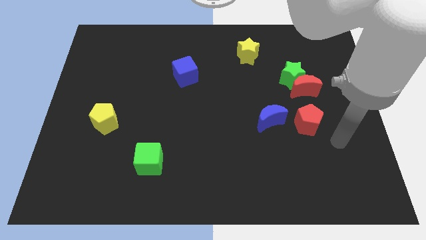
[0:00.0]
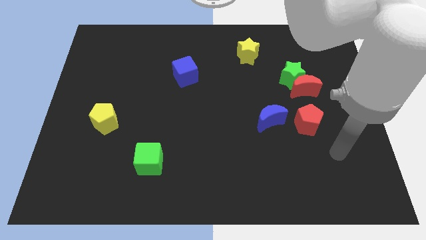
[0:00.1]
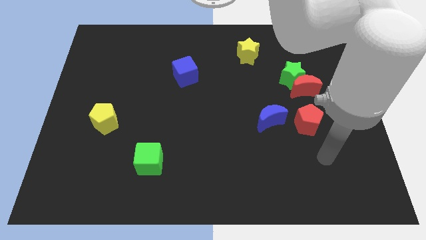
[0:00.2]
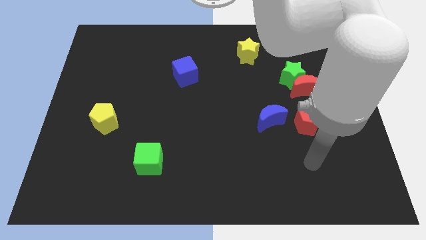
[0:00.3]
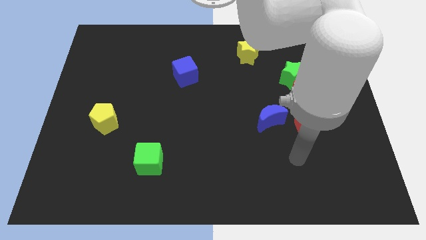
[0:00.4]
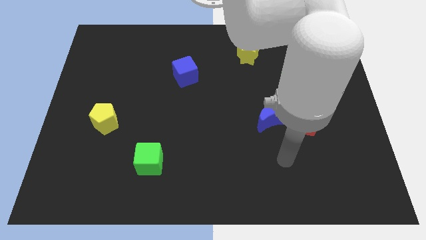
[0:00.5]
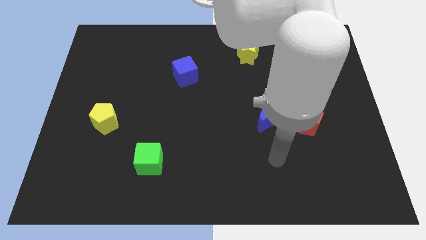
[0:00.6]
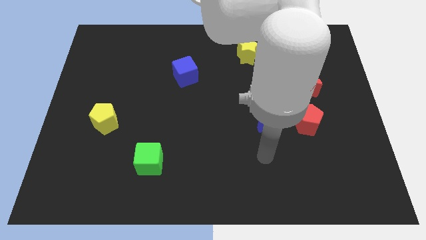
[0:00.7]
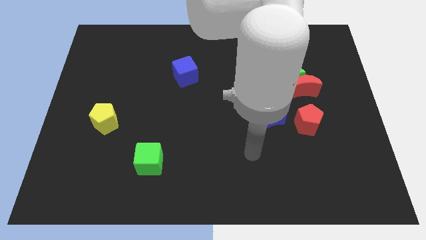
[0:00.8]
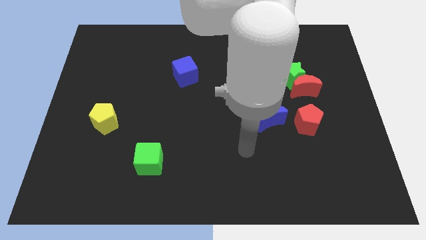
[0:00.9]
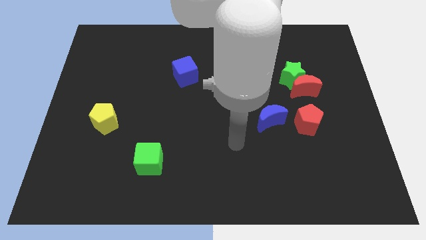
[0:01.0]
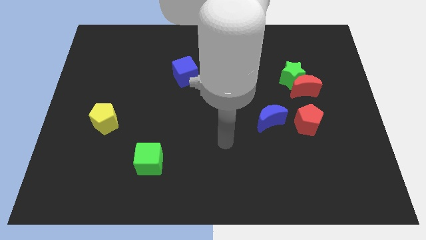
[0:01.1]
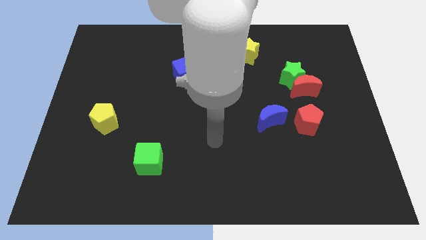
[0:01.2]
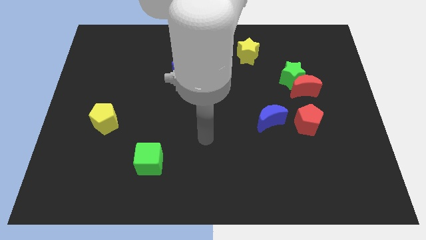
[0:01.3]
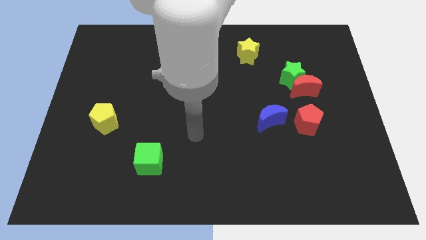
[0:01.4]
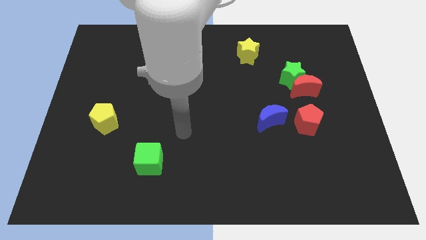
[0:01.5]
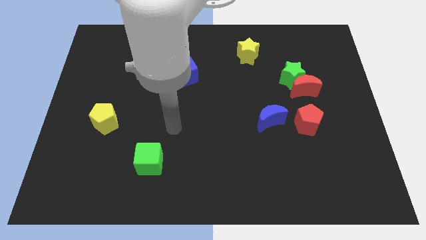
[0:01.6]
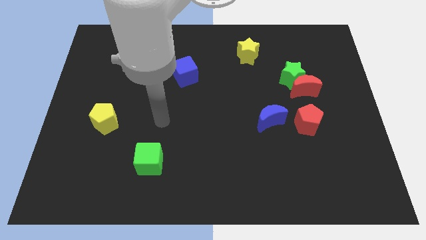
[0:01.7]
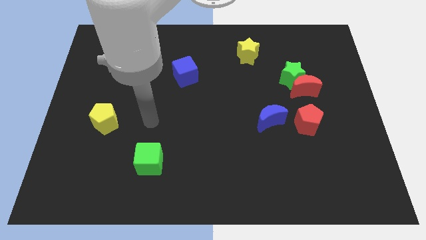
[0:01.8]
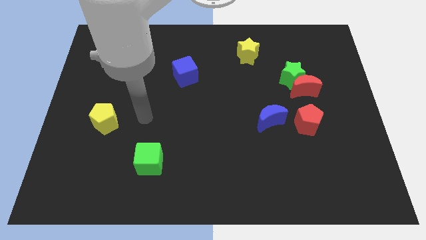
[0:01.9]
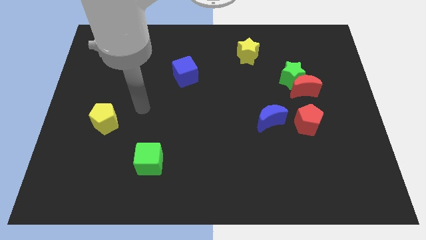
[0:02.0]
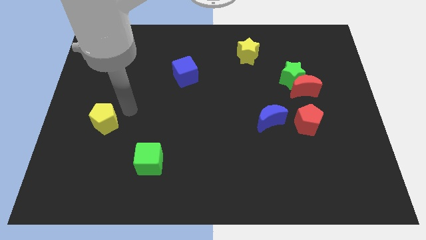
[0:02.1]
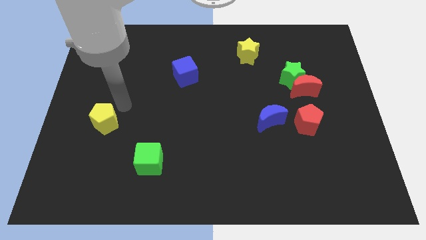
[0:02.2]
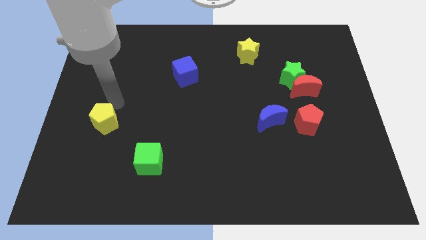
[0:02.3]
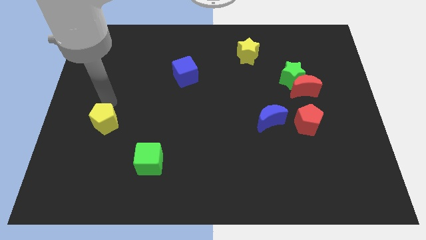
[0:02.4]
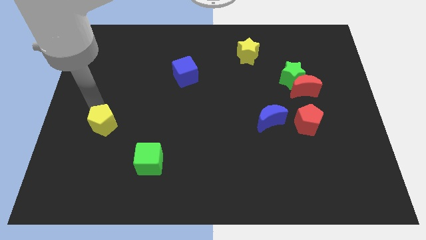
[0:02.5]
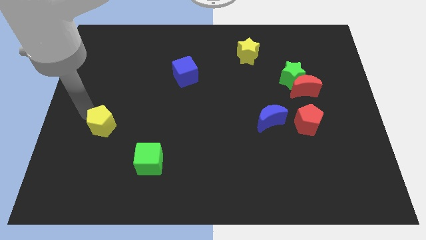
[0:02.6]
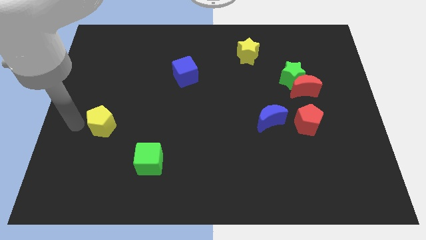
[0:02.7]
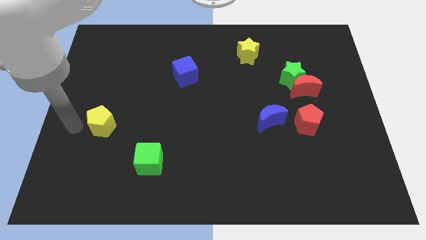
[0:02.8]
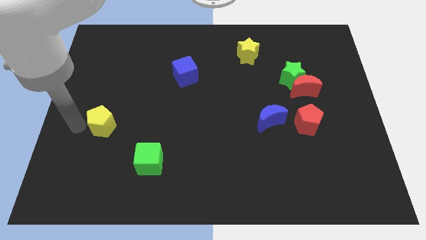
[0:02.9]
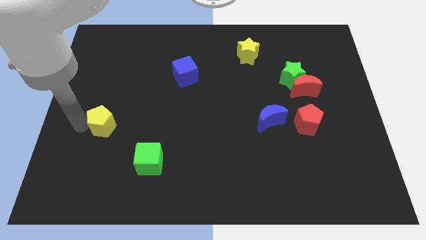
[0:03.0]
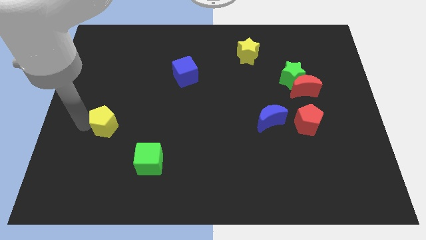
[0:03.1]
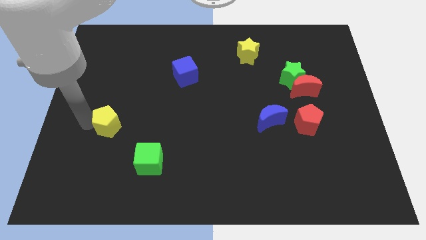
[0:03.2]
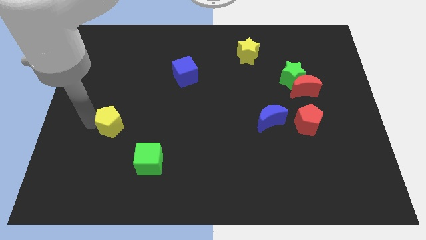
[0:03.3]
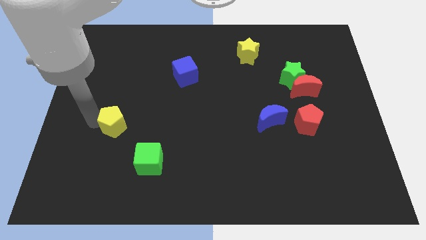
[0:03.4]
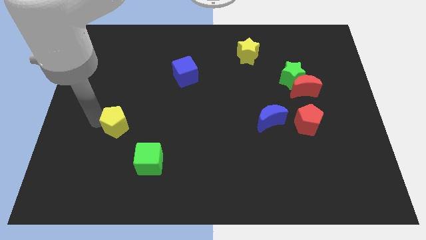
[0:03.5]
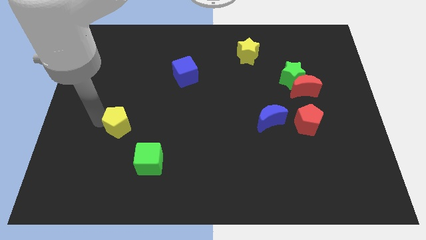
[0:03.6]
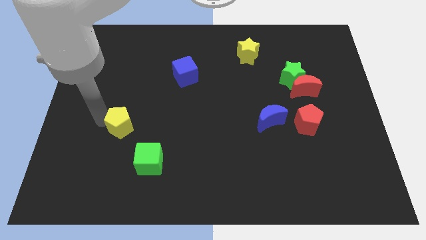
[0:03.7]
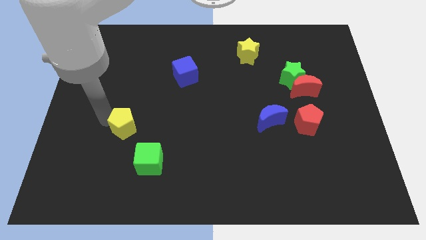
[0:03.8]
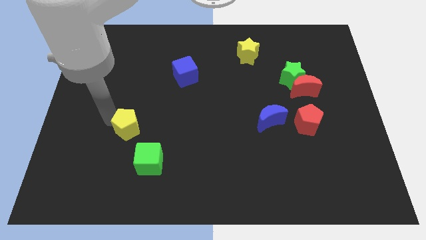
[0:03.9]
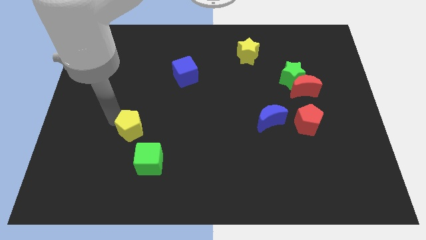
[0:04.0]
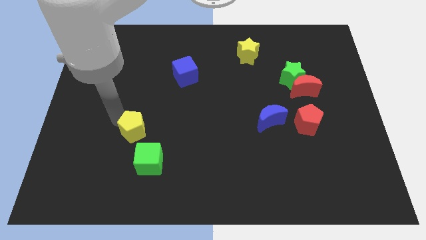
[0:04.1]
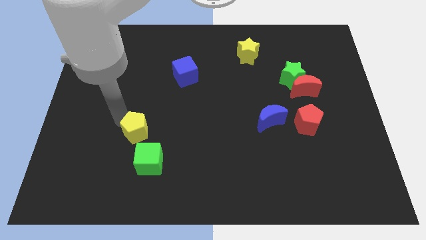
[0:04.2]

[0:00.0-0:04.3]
slightly push the yellow pentagon to the right

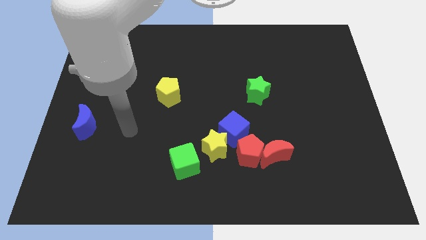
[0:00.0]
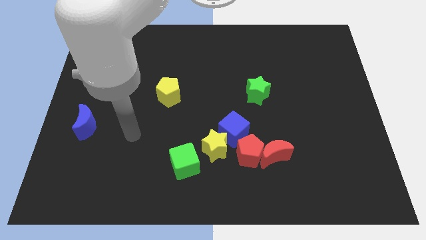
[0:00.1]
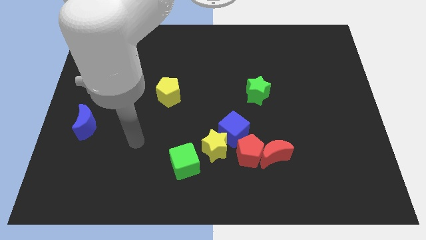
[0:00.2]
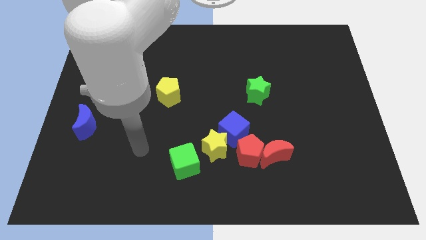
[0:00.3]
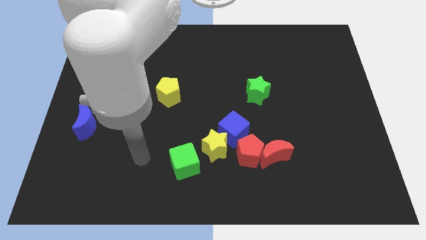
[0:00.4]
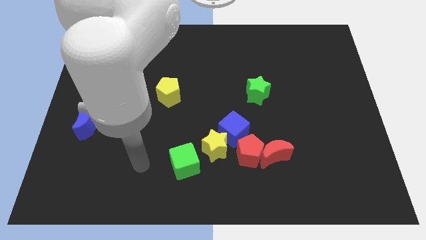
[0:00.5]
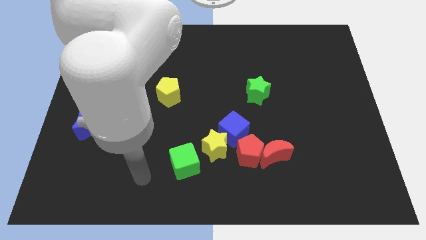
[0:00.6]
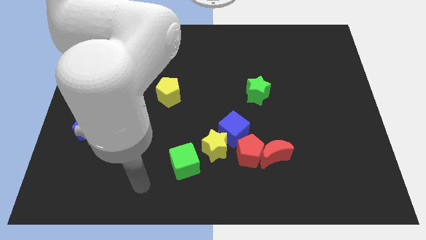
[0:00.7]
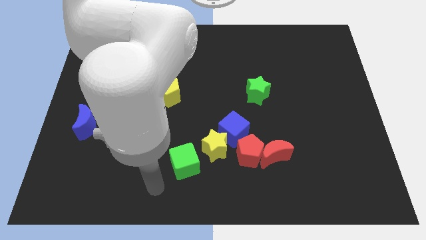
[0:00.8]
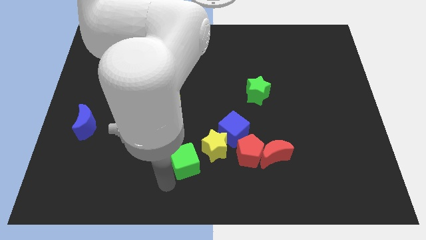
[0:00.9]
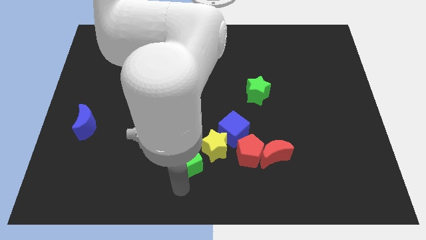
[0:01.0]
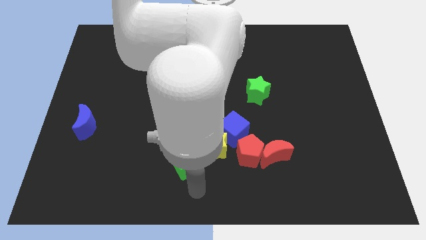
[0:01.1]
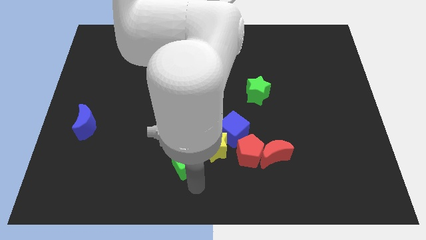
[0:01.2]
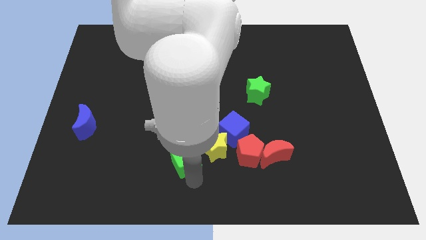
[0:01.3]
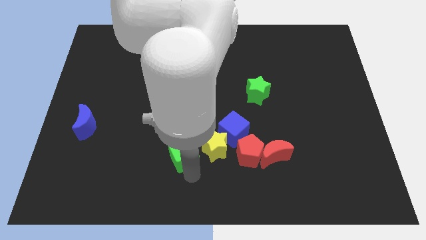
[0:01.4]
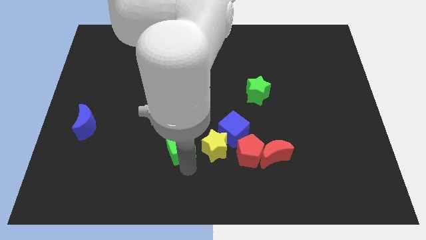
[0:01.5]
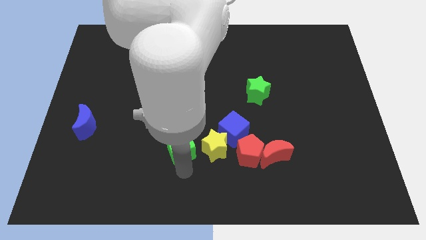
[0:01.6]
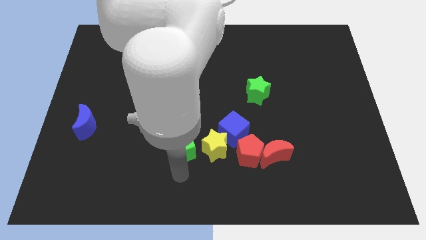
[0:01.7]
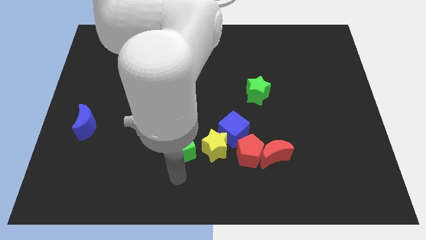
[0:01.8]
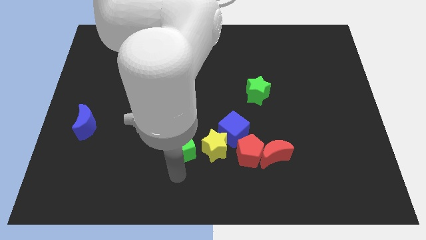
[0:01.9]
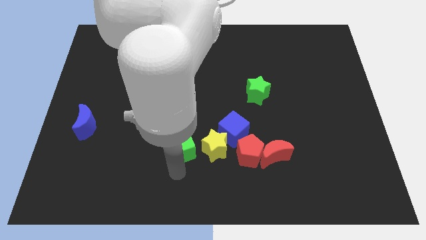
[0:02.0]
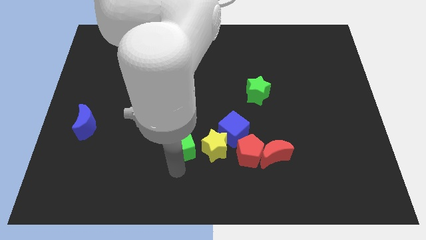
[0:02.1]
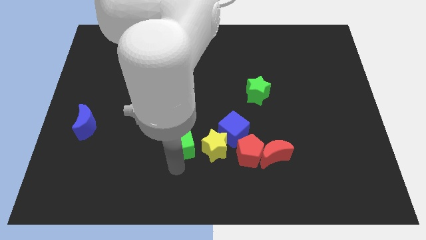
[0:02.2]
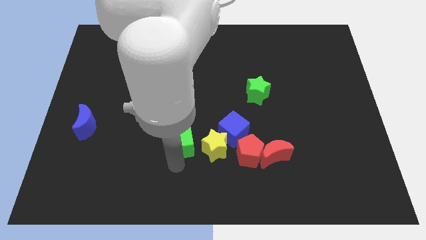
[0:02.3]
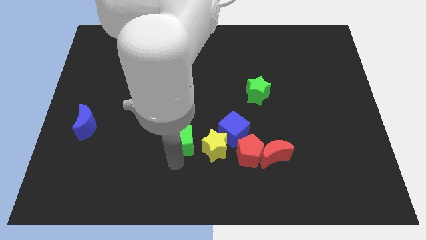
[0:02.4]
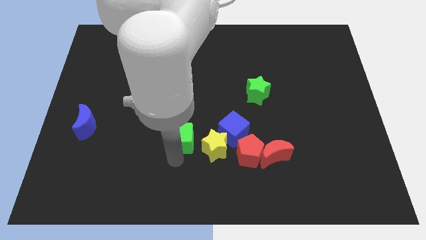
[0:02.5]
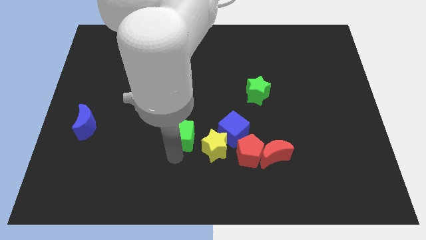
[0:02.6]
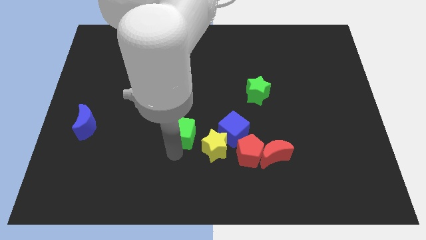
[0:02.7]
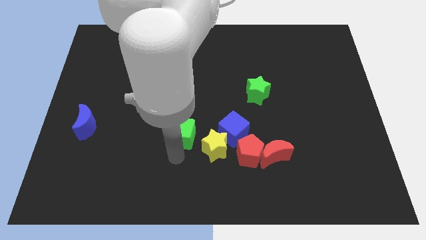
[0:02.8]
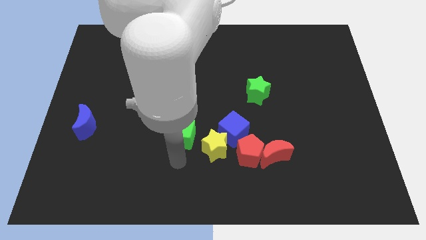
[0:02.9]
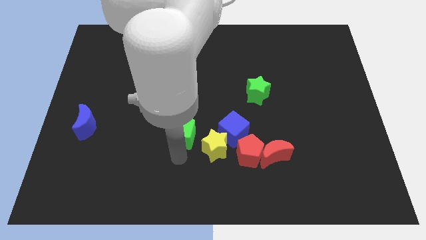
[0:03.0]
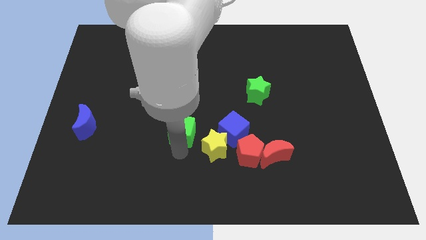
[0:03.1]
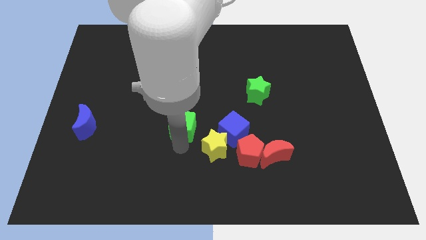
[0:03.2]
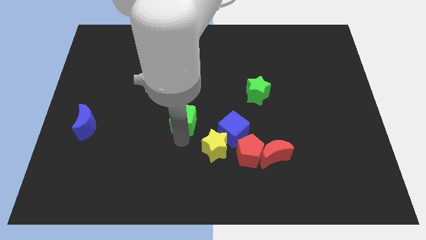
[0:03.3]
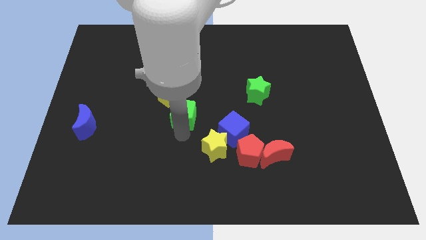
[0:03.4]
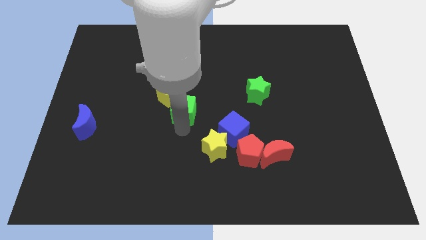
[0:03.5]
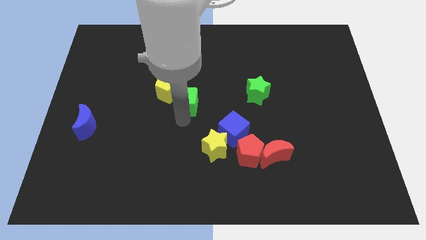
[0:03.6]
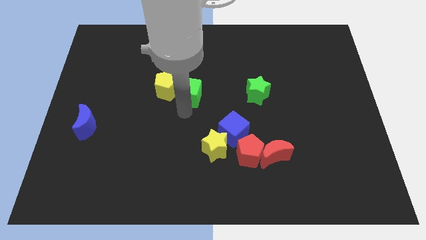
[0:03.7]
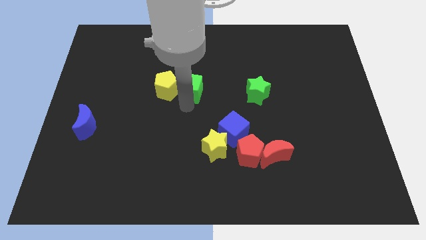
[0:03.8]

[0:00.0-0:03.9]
move the green cube up
